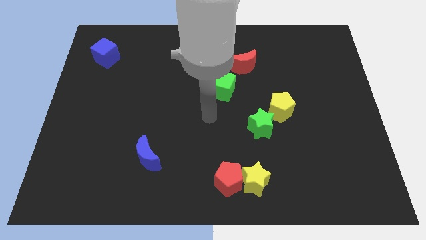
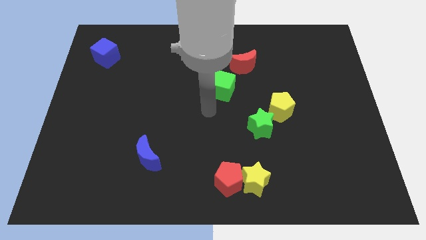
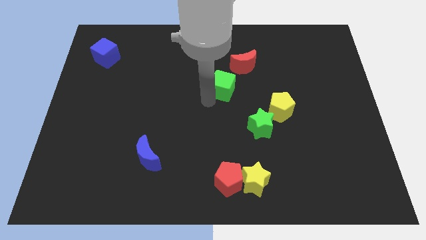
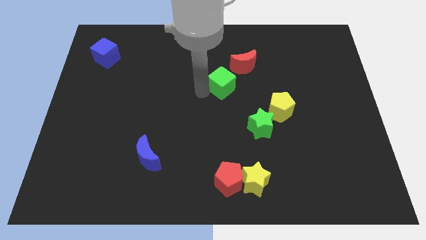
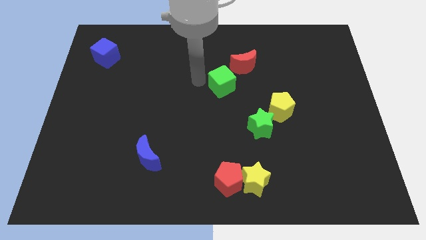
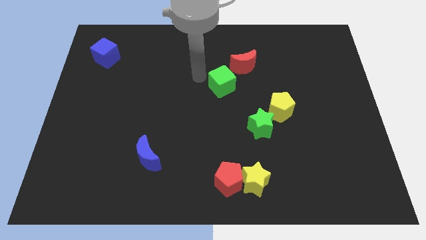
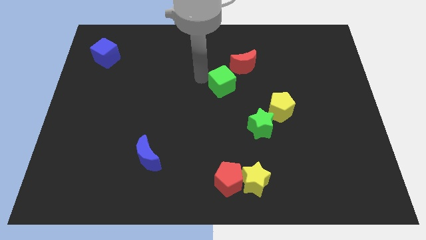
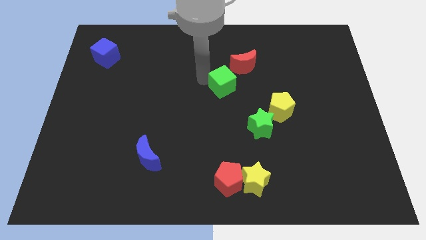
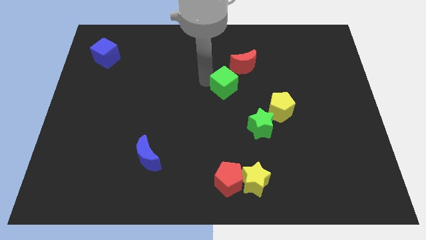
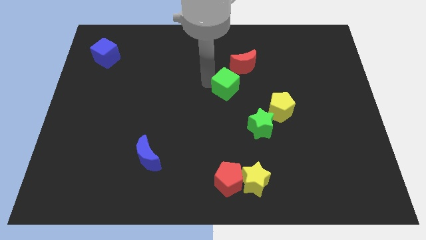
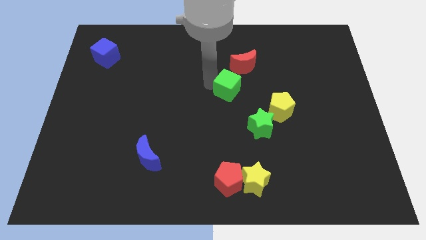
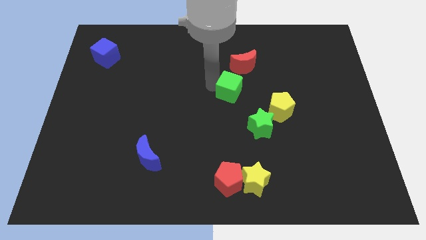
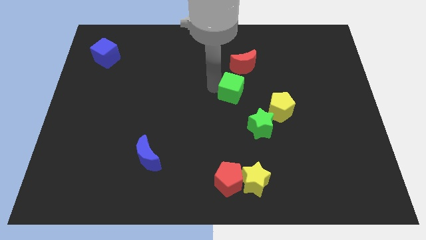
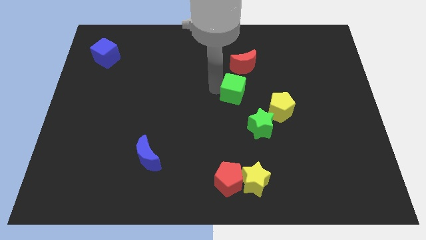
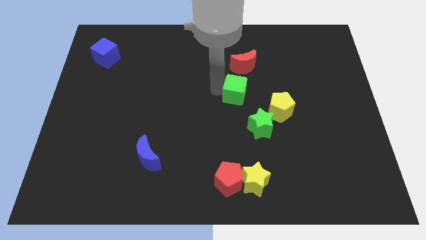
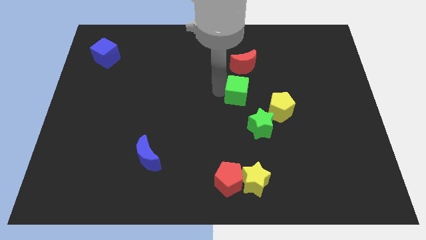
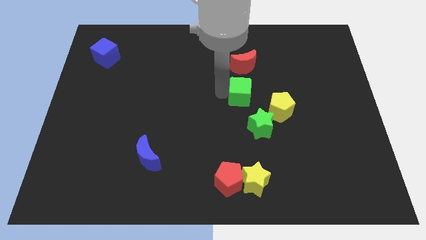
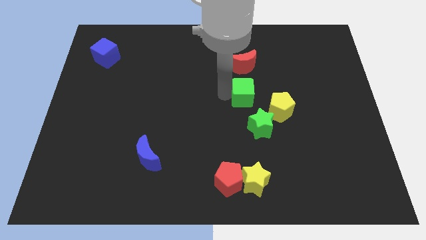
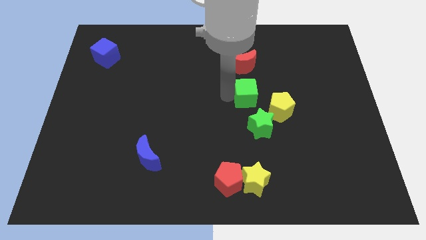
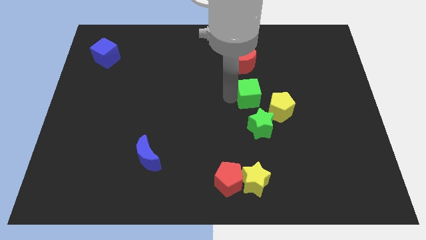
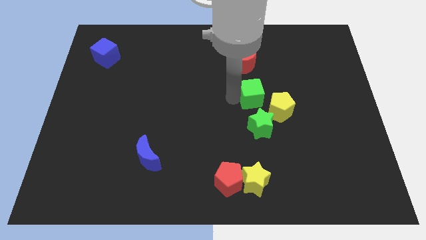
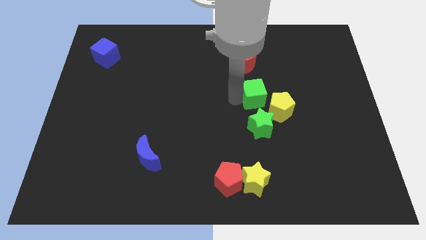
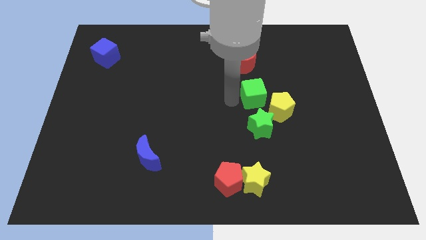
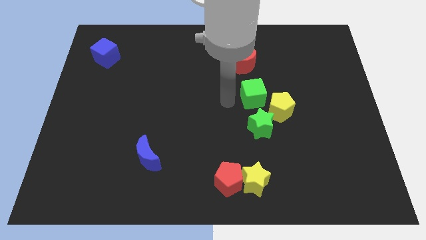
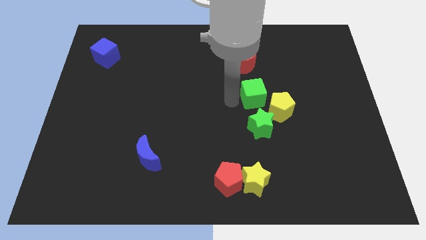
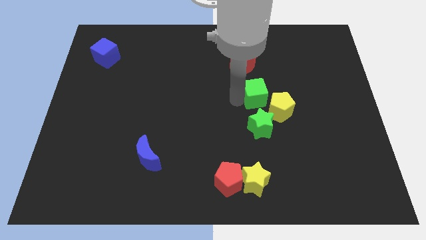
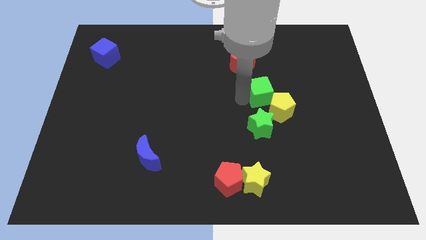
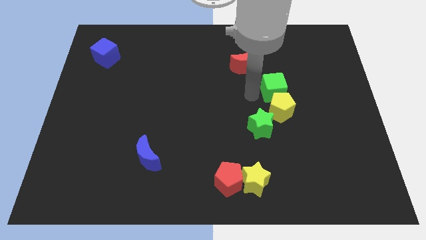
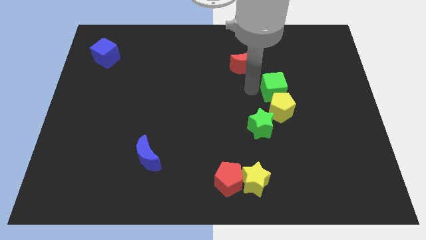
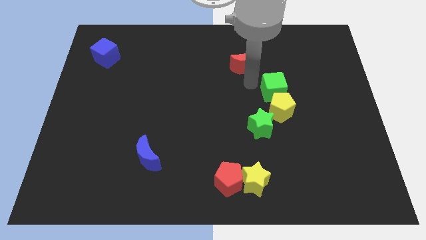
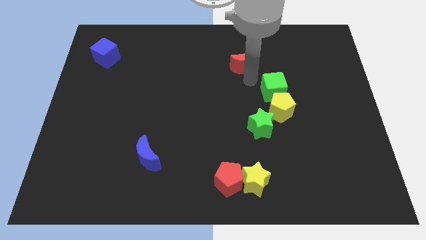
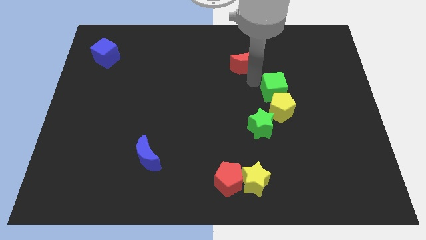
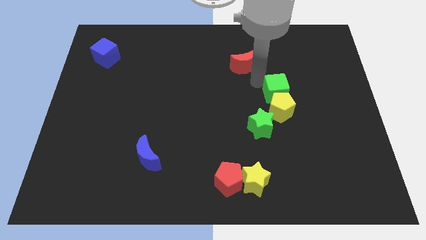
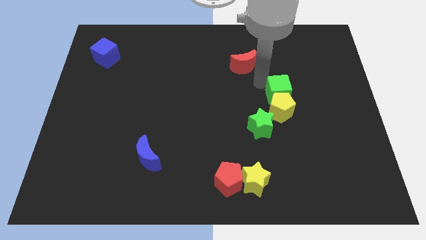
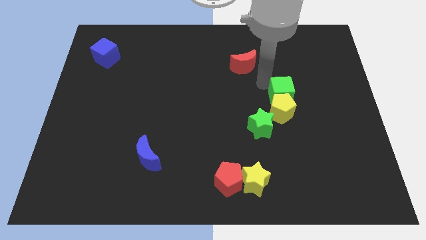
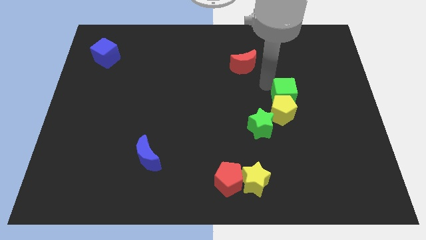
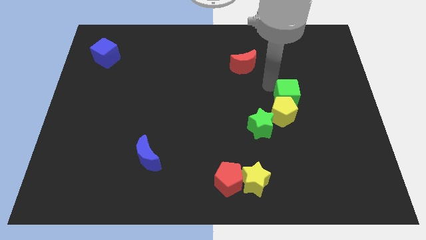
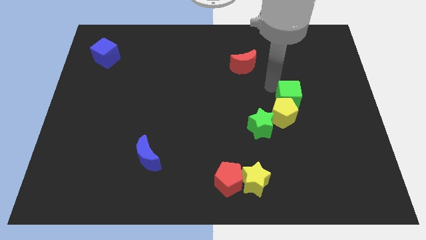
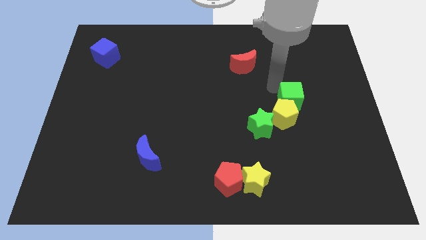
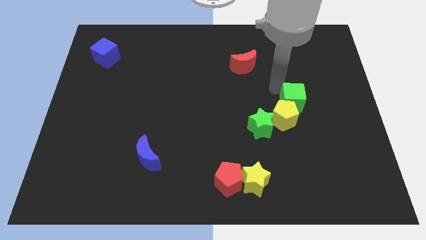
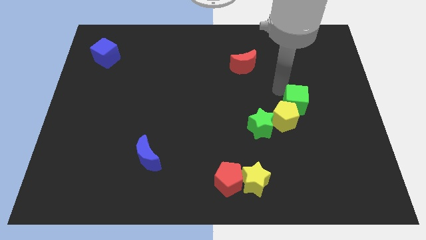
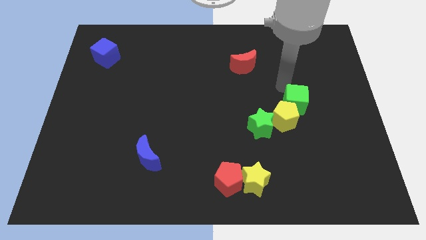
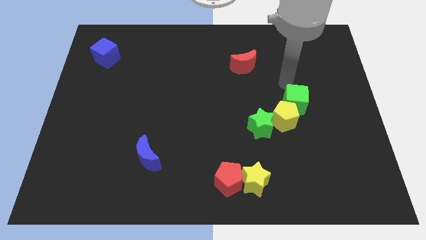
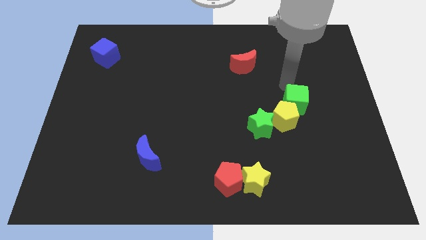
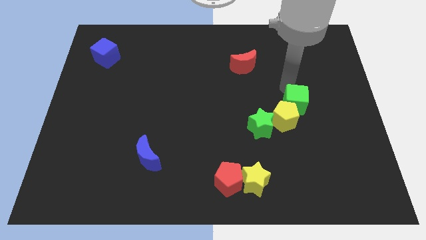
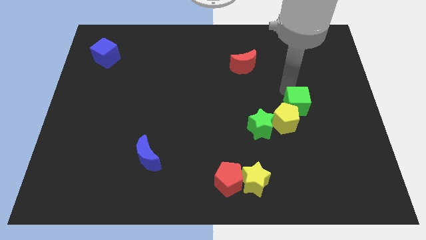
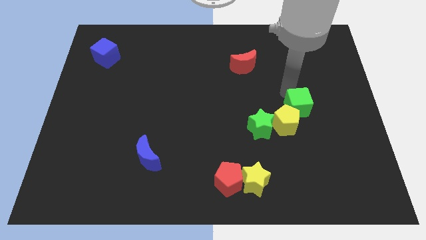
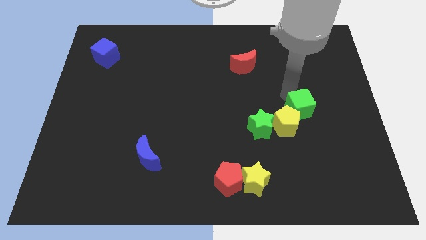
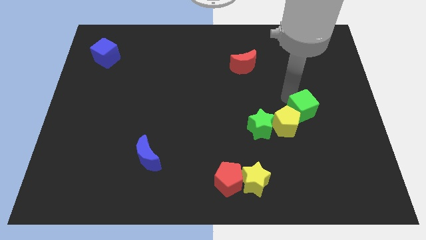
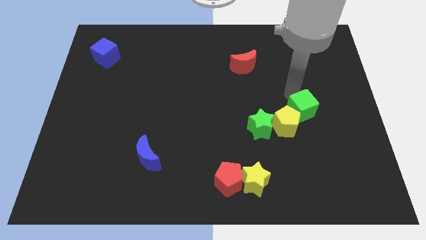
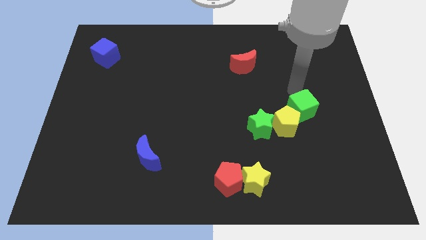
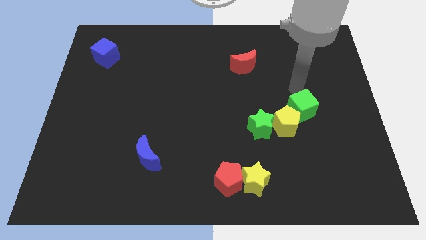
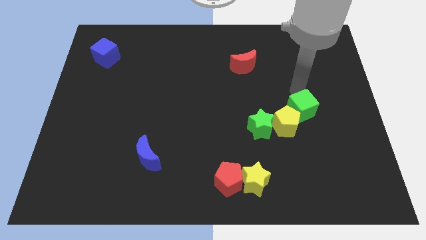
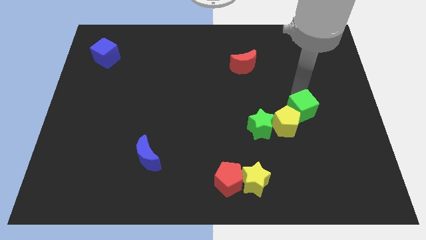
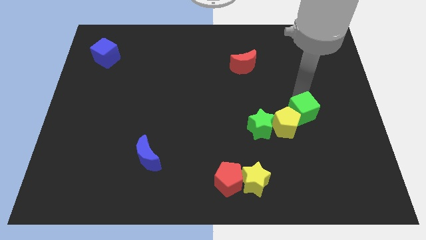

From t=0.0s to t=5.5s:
slide the green cube to the right of the green star

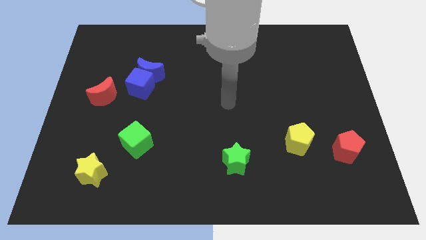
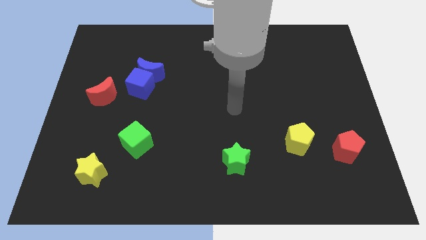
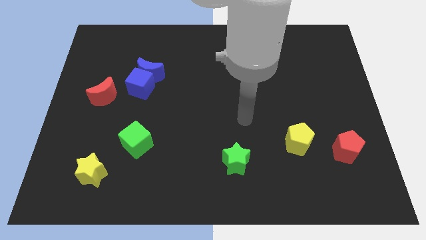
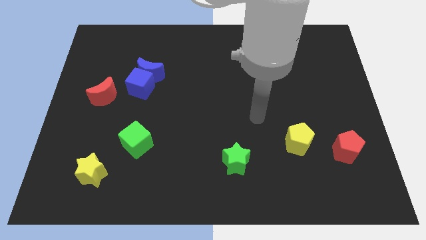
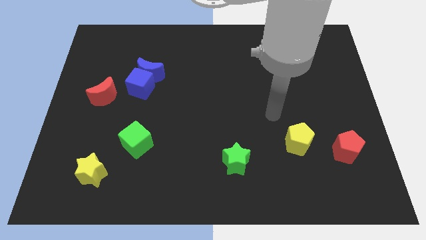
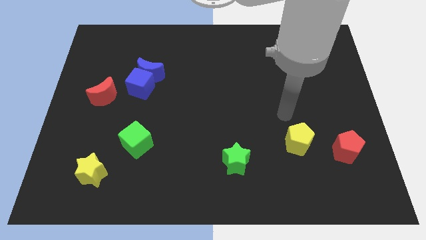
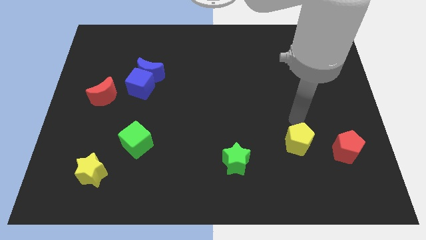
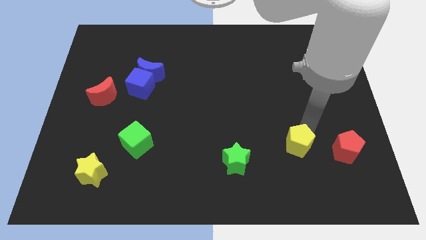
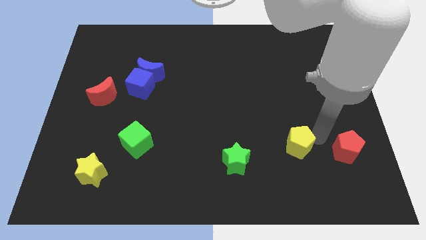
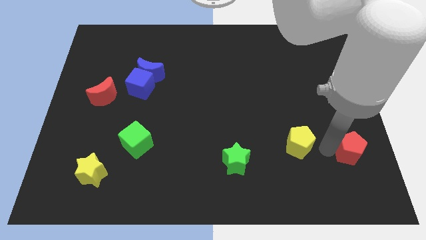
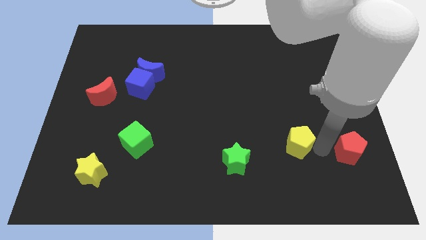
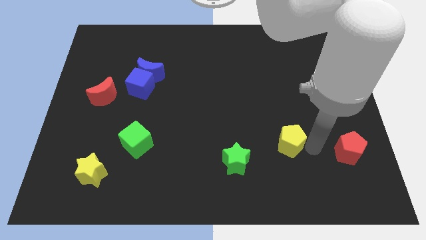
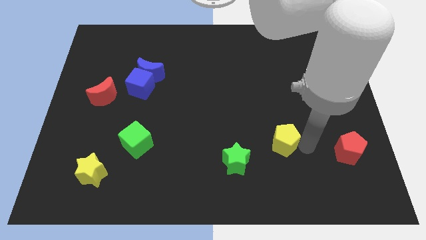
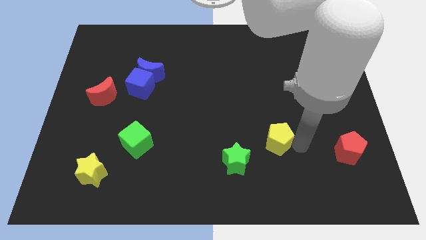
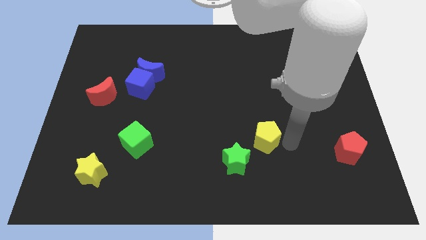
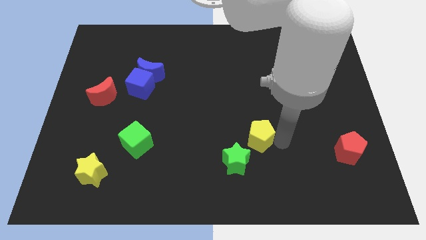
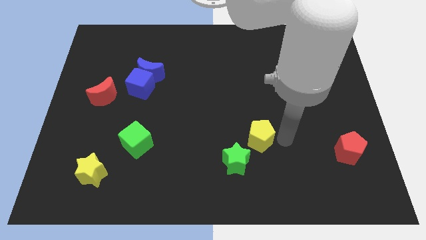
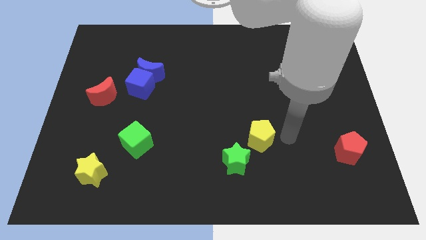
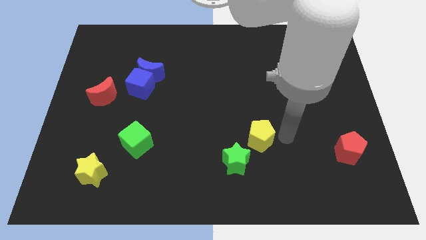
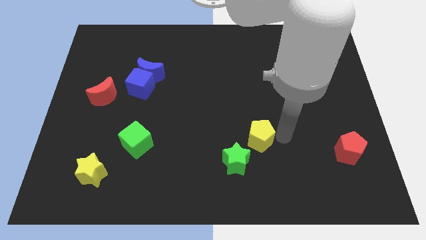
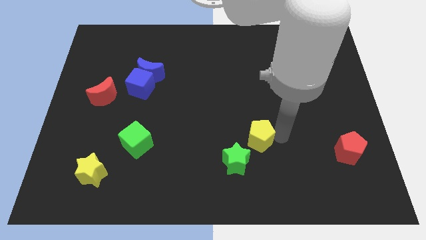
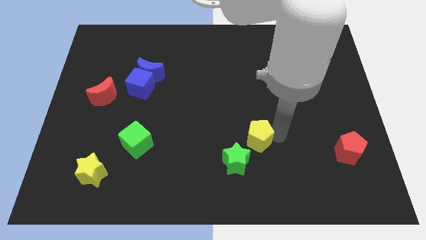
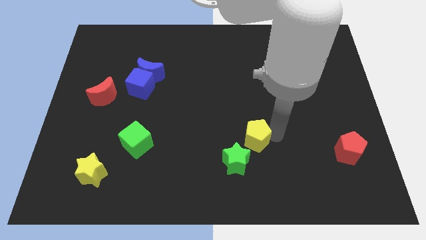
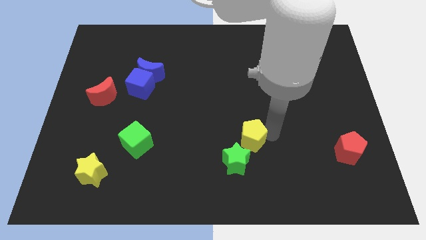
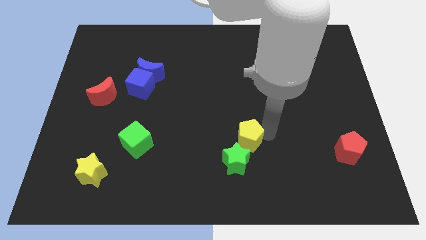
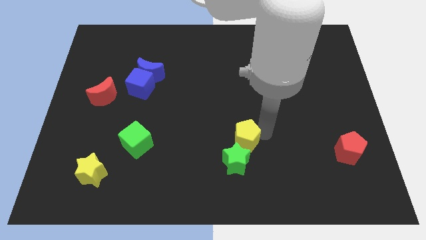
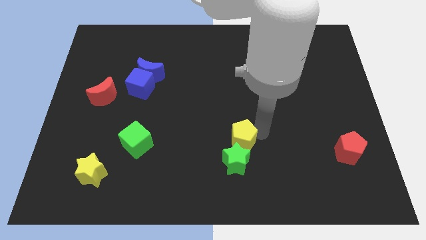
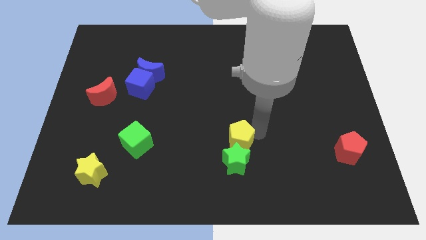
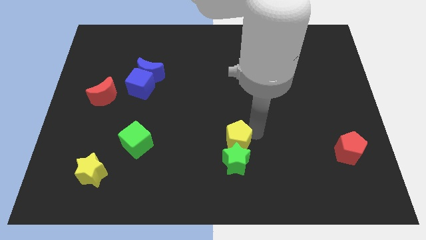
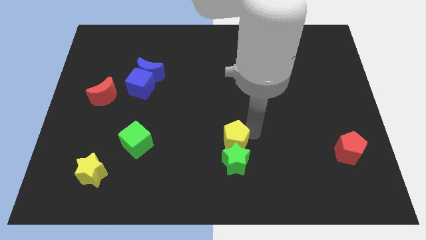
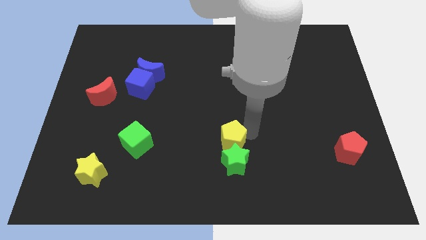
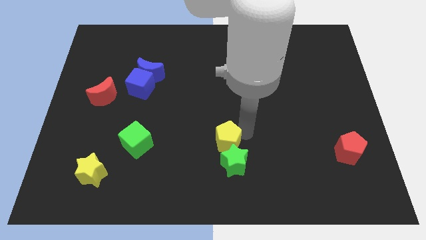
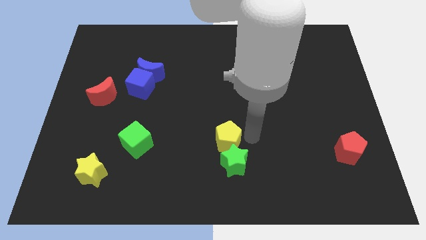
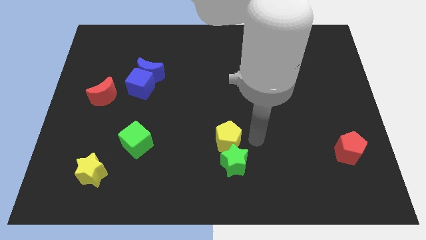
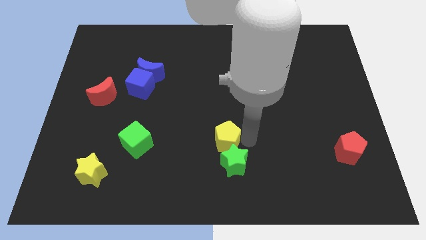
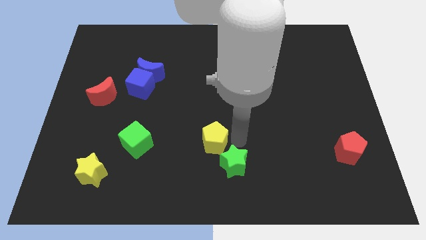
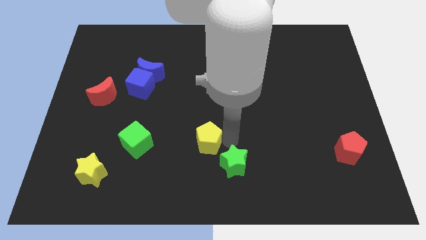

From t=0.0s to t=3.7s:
push the yellow pentagon to the right of the green cube
